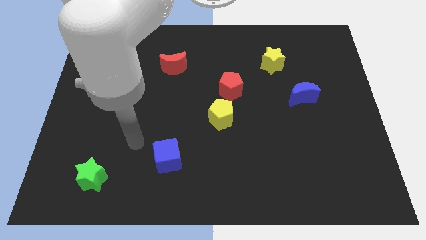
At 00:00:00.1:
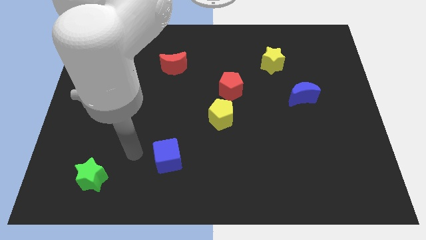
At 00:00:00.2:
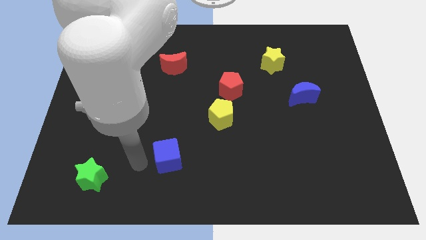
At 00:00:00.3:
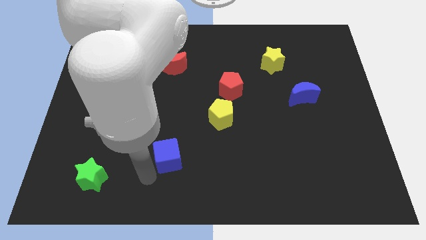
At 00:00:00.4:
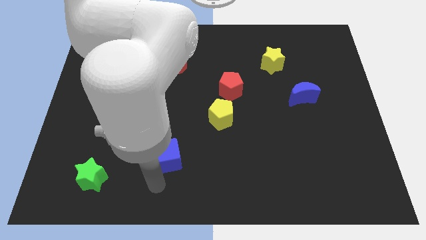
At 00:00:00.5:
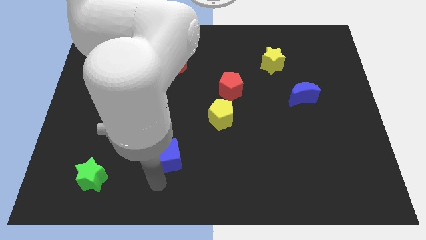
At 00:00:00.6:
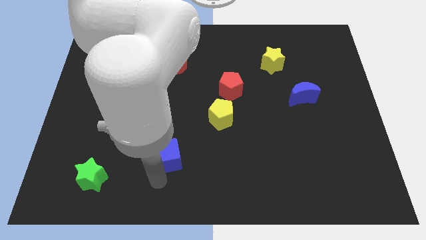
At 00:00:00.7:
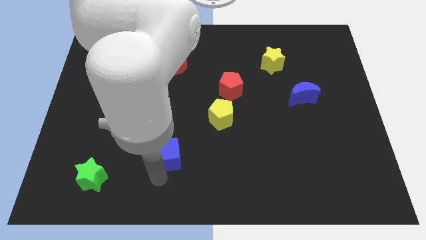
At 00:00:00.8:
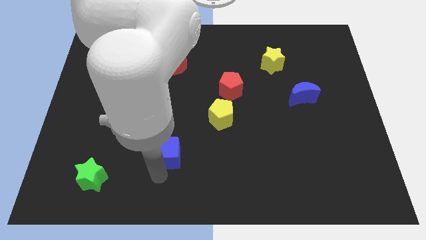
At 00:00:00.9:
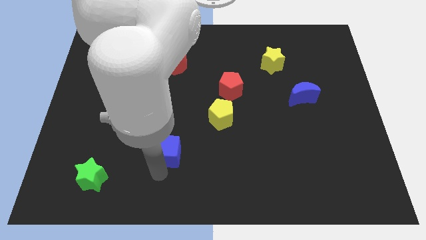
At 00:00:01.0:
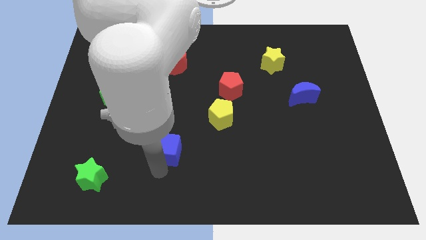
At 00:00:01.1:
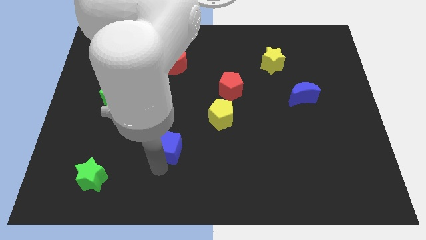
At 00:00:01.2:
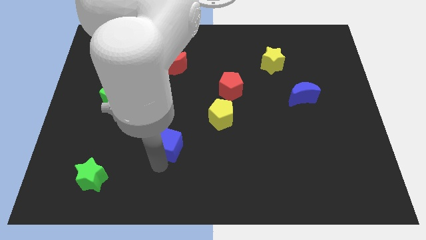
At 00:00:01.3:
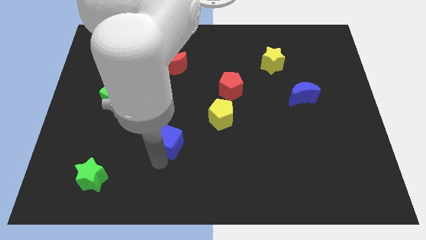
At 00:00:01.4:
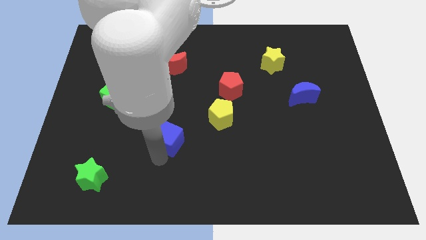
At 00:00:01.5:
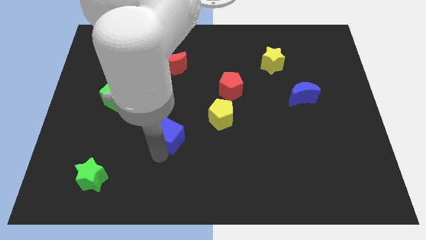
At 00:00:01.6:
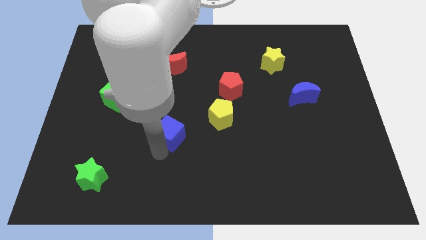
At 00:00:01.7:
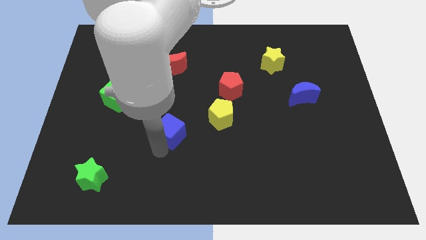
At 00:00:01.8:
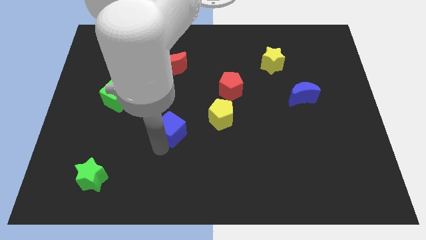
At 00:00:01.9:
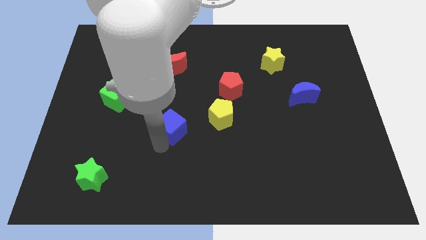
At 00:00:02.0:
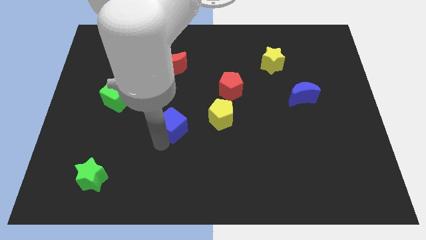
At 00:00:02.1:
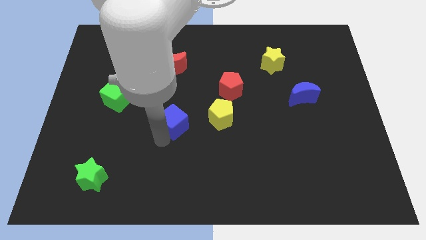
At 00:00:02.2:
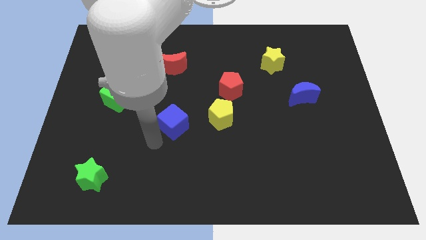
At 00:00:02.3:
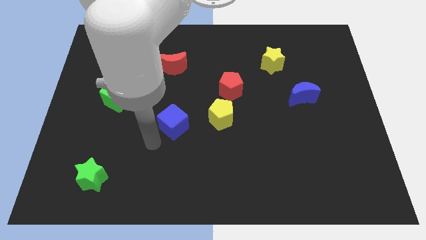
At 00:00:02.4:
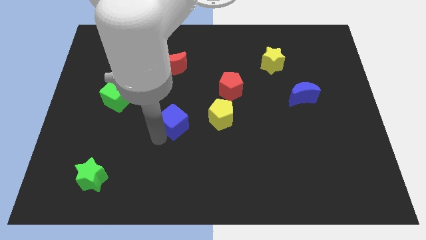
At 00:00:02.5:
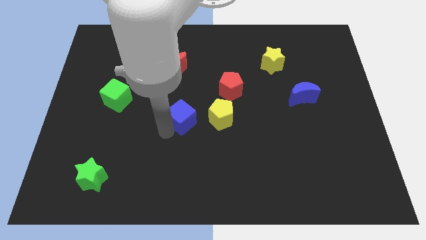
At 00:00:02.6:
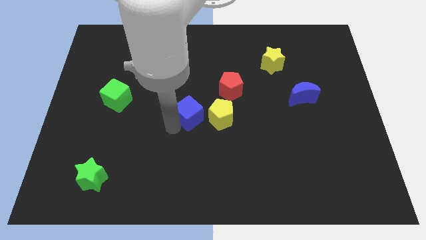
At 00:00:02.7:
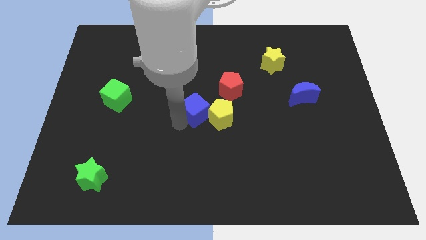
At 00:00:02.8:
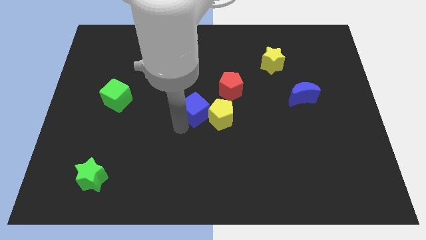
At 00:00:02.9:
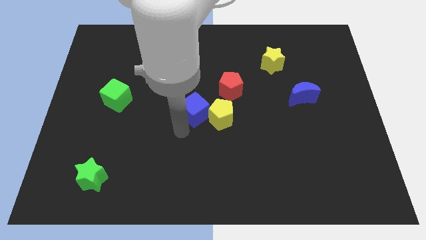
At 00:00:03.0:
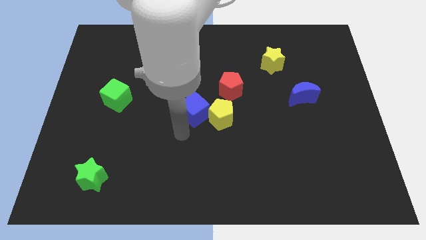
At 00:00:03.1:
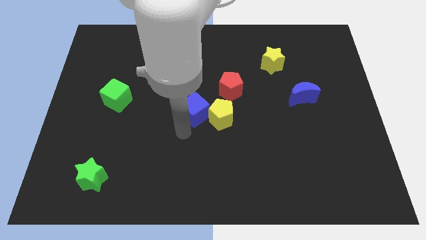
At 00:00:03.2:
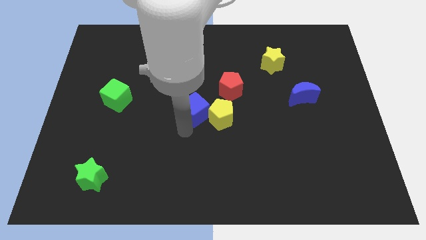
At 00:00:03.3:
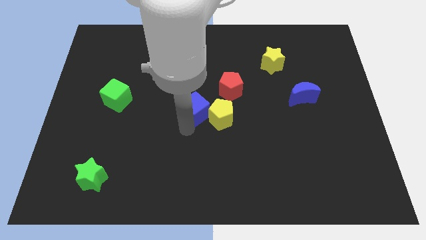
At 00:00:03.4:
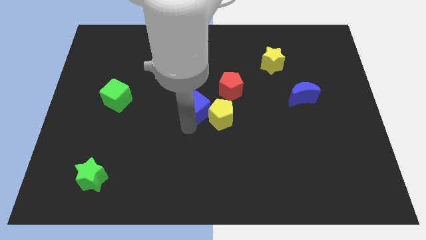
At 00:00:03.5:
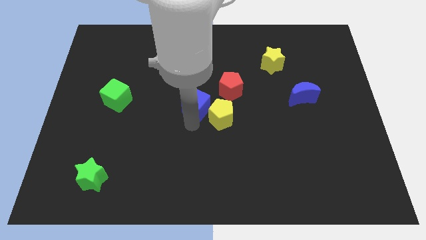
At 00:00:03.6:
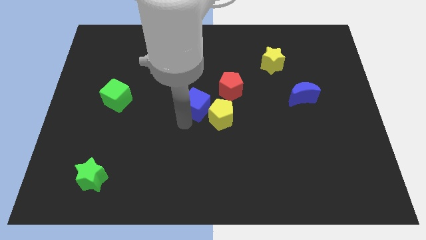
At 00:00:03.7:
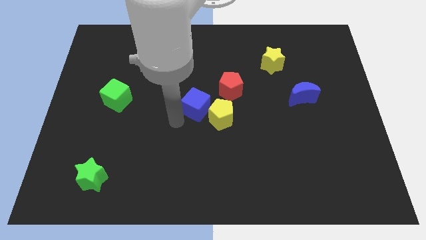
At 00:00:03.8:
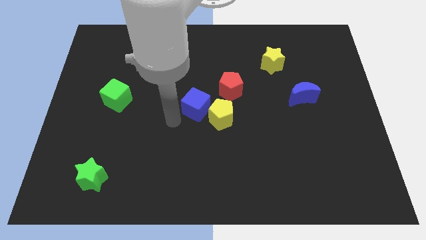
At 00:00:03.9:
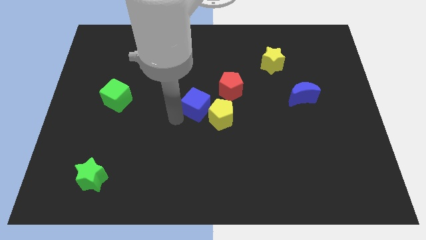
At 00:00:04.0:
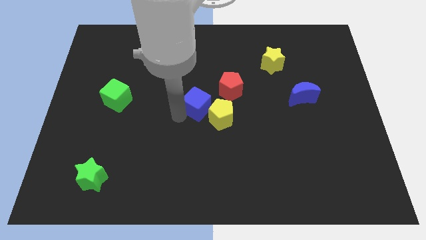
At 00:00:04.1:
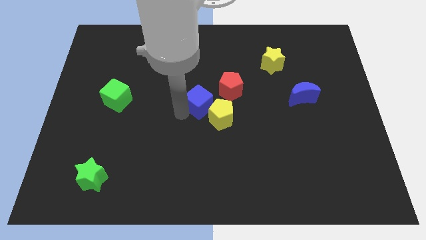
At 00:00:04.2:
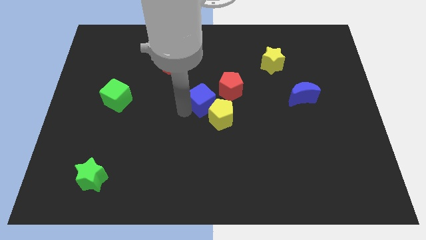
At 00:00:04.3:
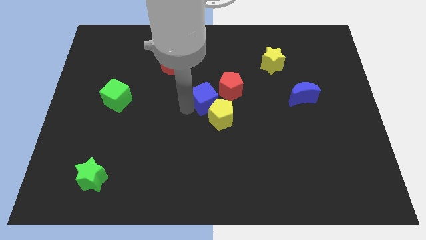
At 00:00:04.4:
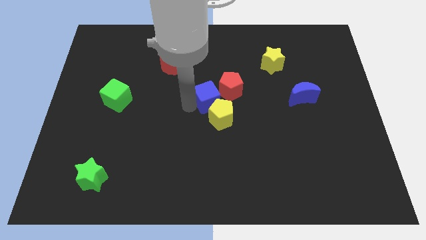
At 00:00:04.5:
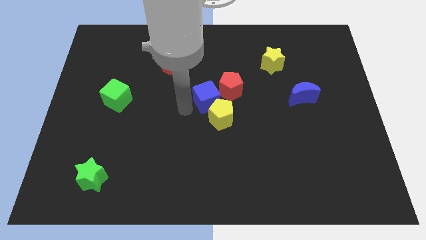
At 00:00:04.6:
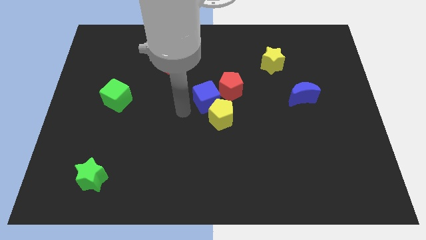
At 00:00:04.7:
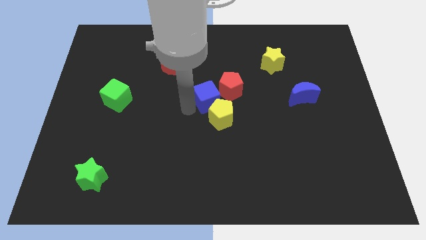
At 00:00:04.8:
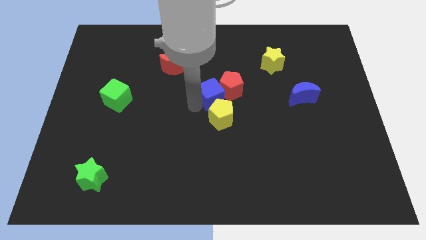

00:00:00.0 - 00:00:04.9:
put the blue cube to the red pentagon

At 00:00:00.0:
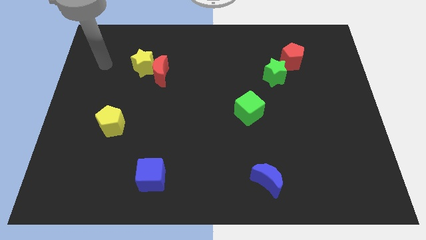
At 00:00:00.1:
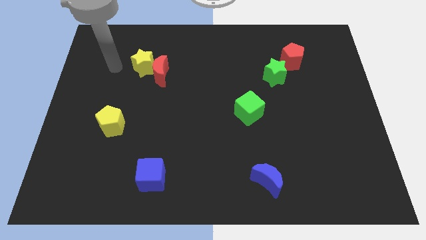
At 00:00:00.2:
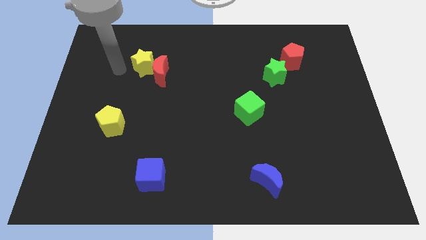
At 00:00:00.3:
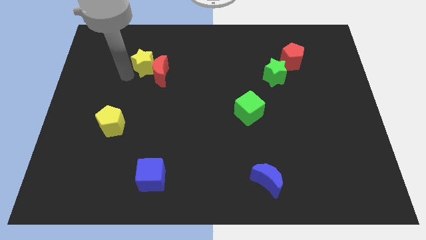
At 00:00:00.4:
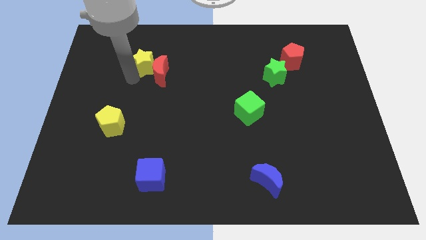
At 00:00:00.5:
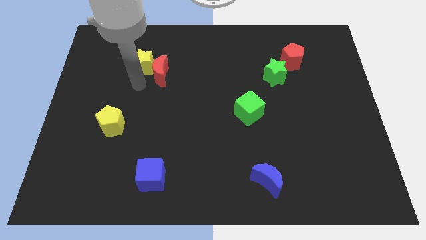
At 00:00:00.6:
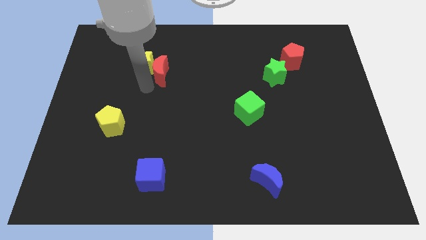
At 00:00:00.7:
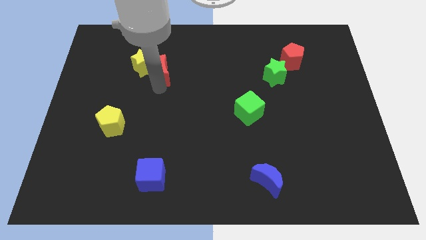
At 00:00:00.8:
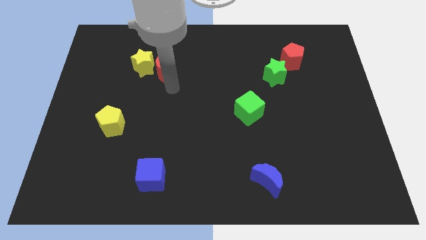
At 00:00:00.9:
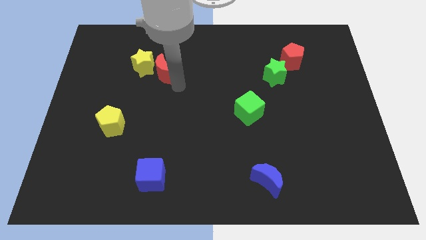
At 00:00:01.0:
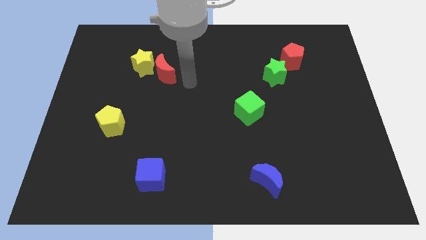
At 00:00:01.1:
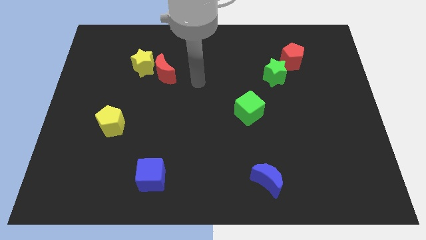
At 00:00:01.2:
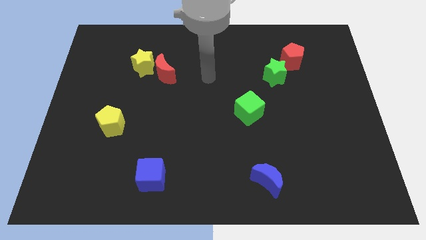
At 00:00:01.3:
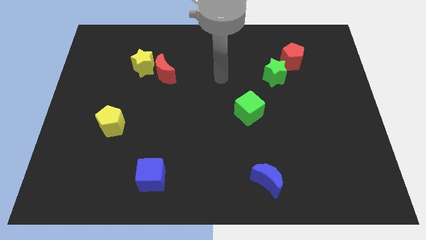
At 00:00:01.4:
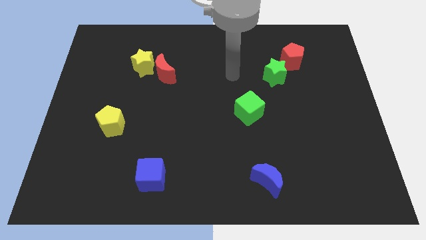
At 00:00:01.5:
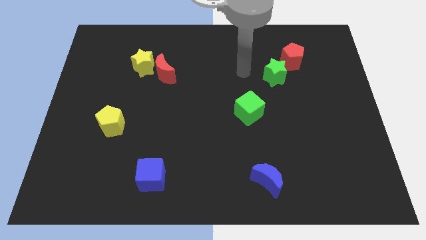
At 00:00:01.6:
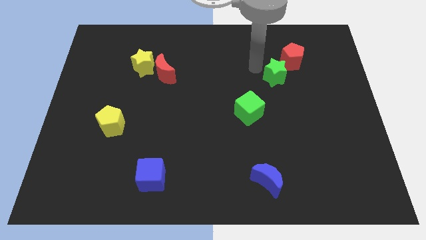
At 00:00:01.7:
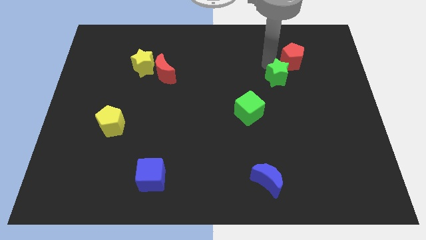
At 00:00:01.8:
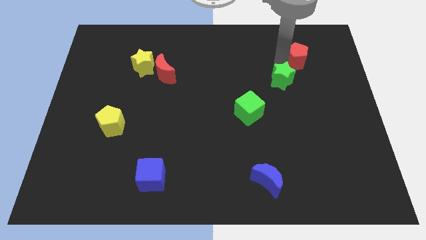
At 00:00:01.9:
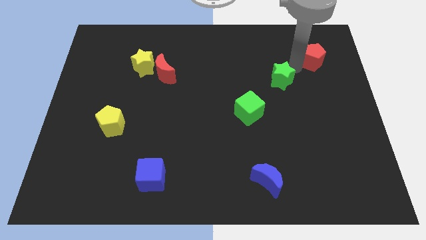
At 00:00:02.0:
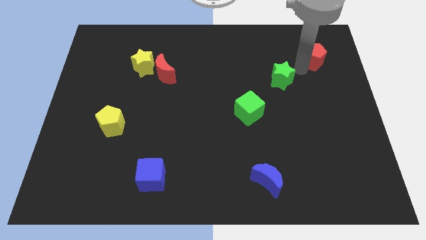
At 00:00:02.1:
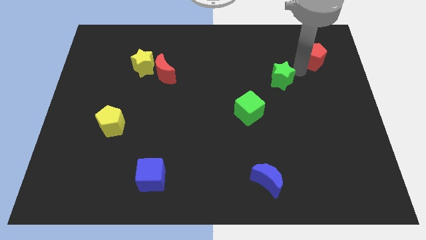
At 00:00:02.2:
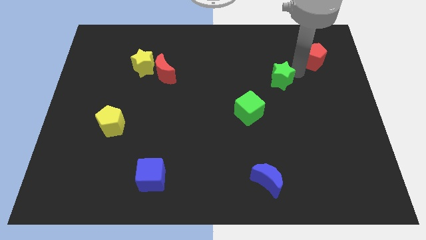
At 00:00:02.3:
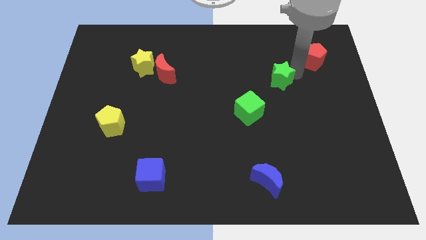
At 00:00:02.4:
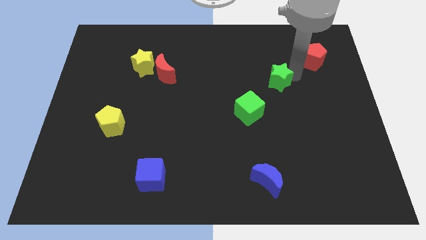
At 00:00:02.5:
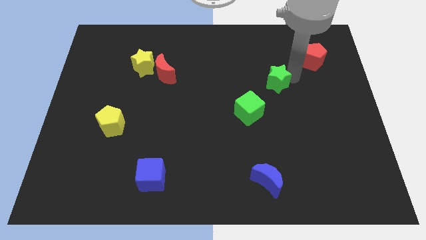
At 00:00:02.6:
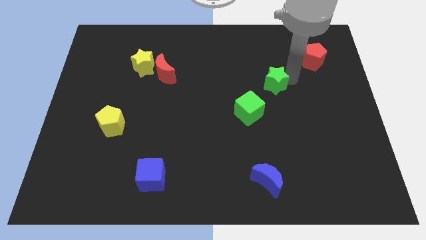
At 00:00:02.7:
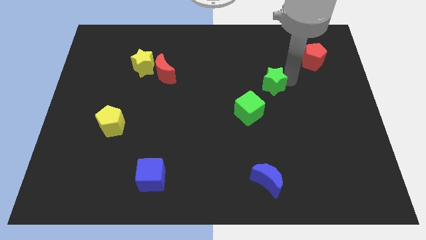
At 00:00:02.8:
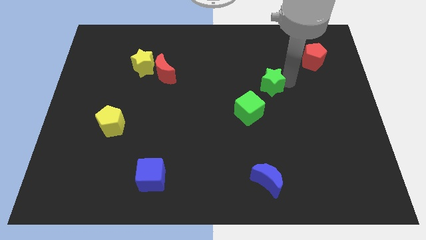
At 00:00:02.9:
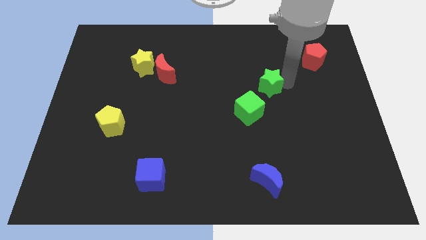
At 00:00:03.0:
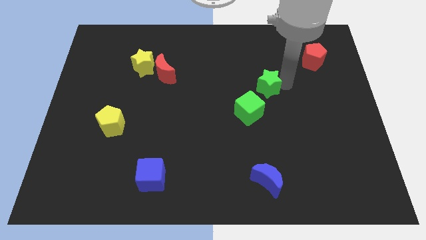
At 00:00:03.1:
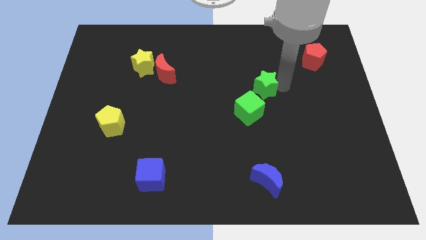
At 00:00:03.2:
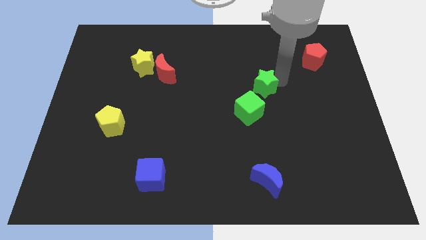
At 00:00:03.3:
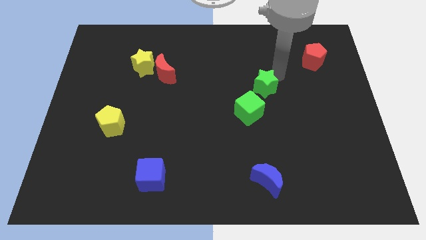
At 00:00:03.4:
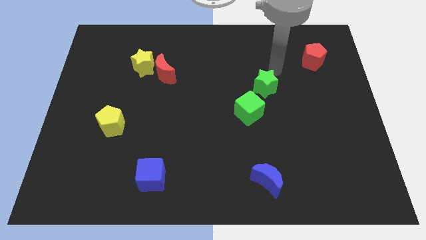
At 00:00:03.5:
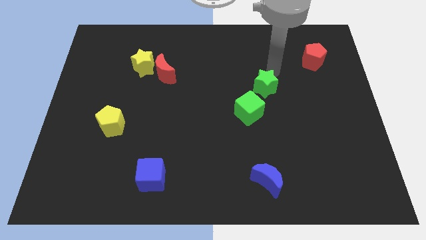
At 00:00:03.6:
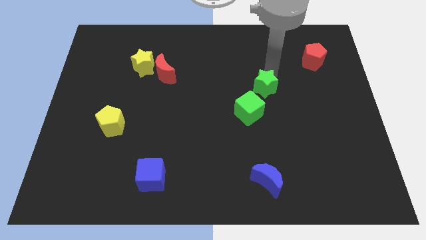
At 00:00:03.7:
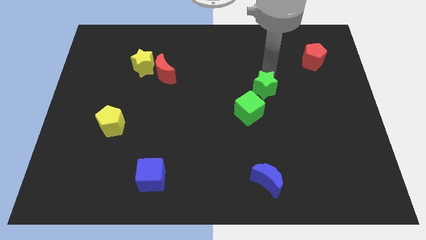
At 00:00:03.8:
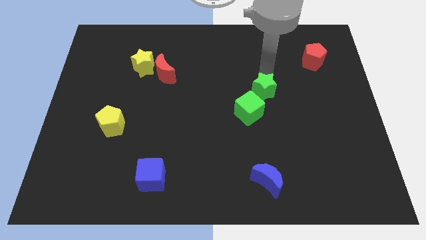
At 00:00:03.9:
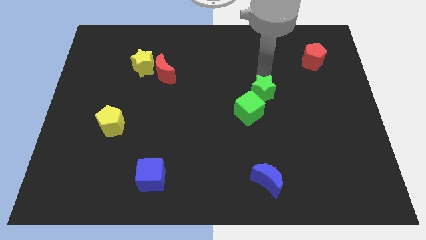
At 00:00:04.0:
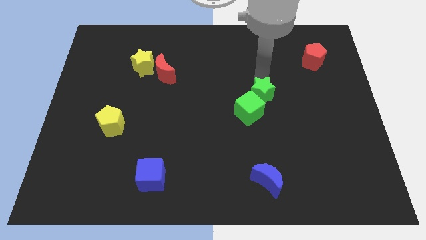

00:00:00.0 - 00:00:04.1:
move the green star towards the green cube
